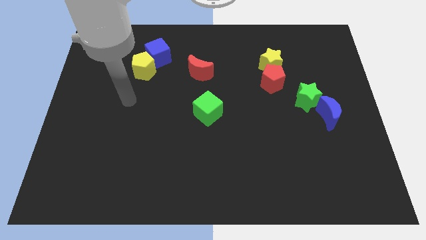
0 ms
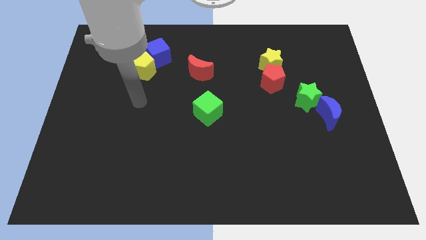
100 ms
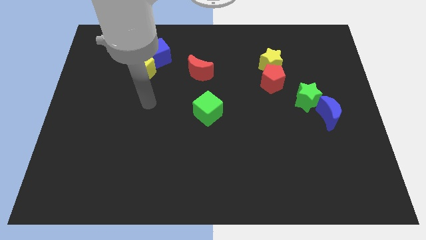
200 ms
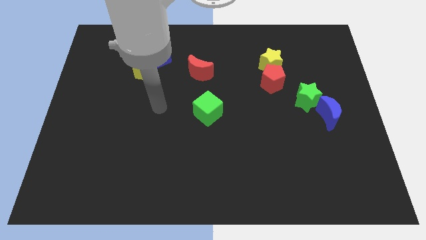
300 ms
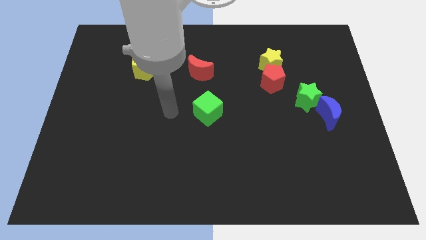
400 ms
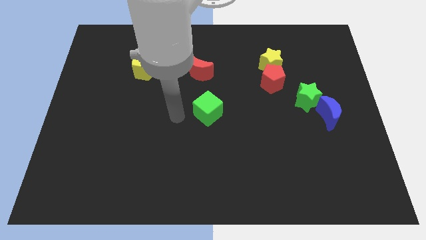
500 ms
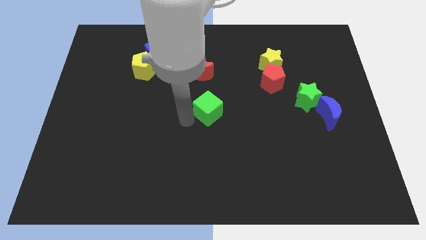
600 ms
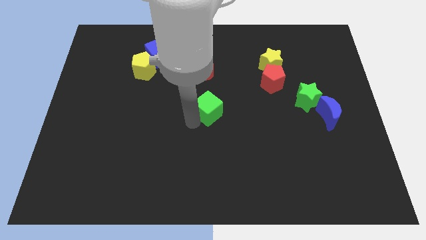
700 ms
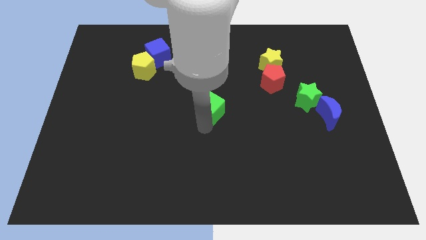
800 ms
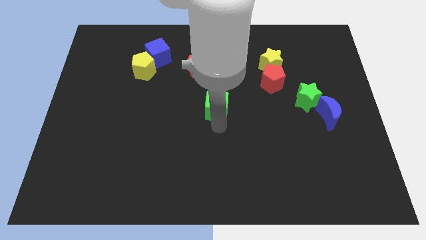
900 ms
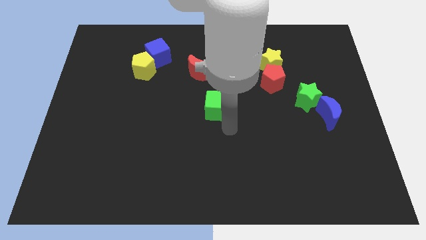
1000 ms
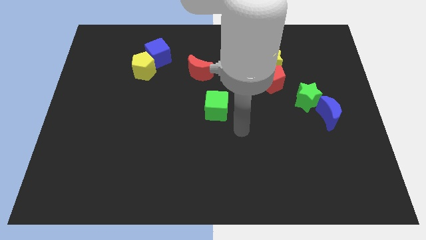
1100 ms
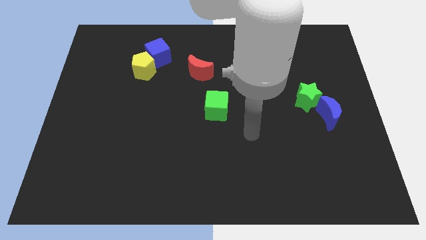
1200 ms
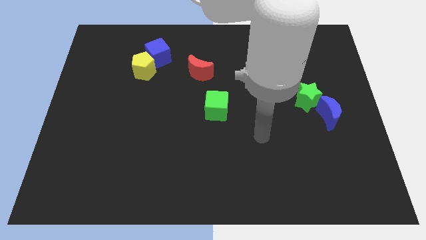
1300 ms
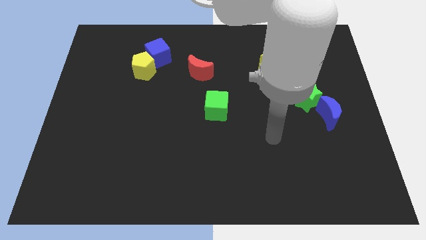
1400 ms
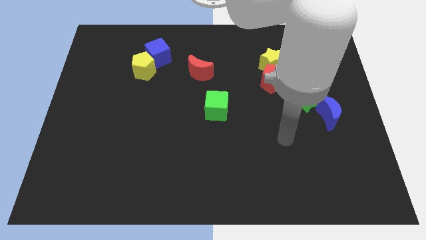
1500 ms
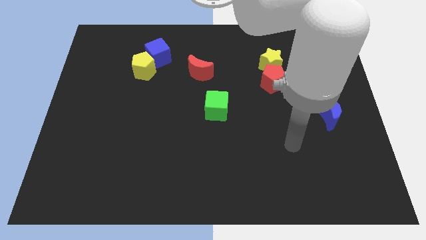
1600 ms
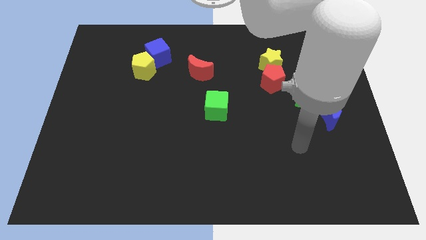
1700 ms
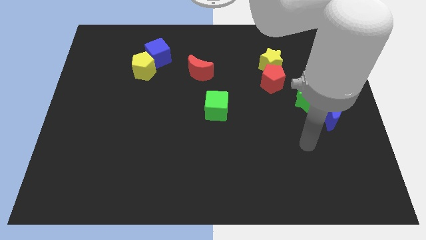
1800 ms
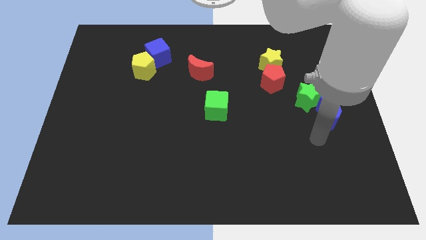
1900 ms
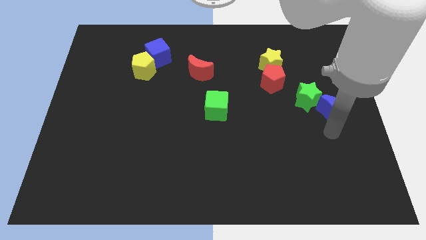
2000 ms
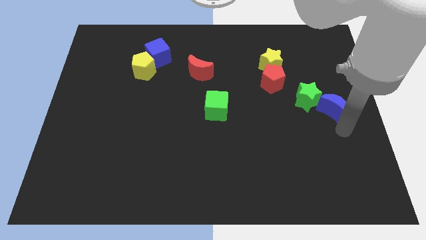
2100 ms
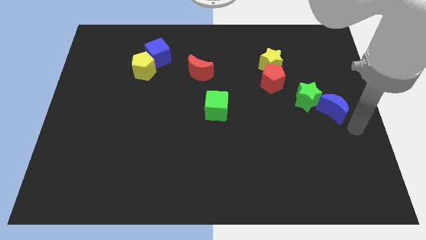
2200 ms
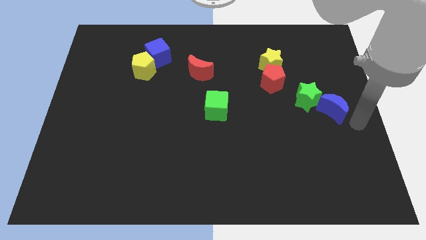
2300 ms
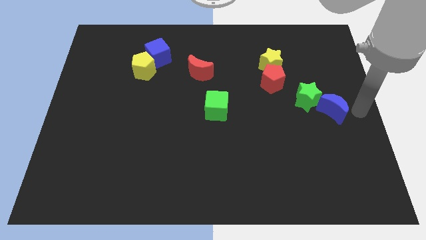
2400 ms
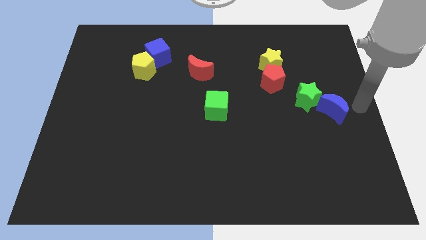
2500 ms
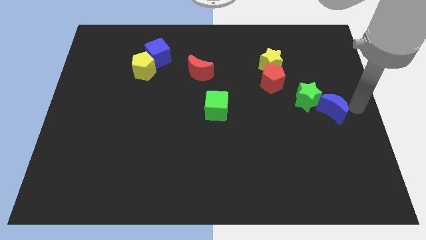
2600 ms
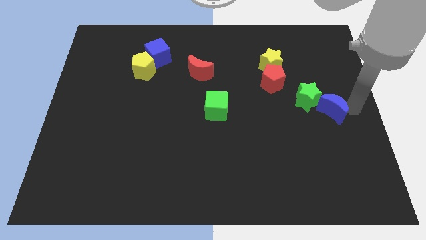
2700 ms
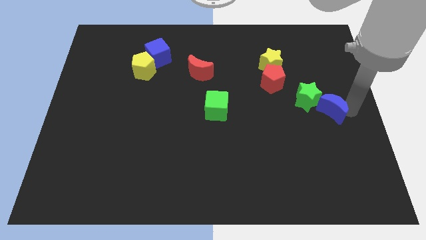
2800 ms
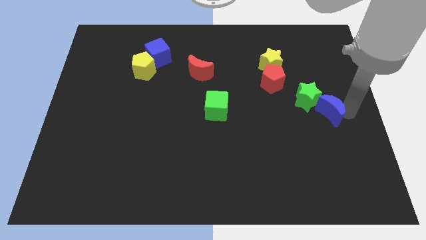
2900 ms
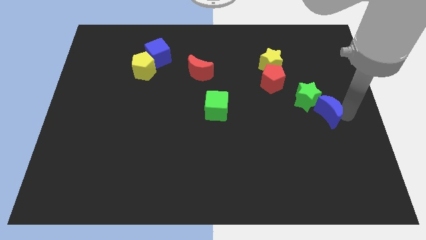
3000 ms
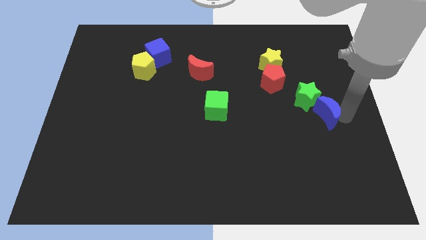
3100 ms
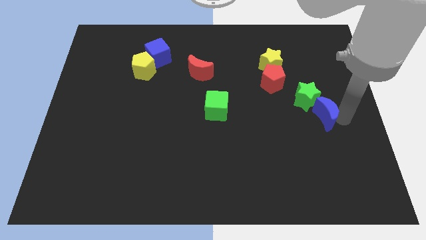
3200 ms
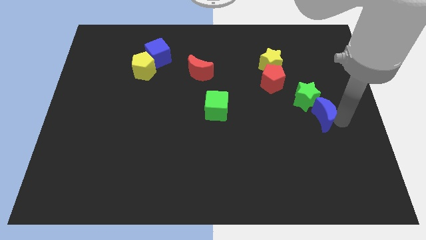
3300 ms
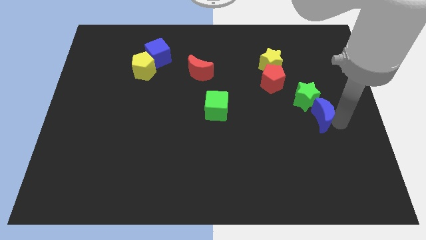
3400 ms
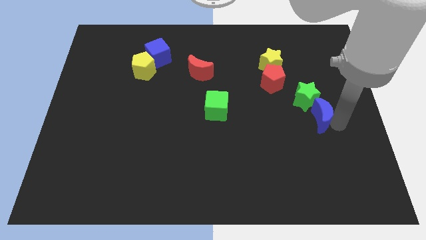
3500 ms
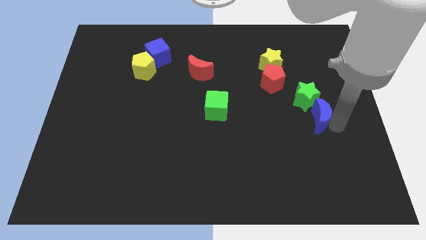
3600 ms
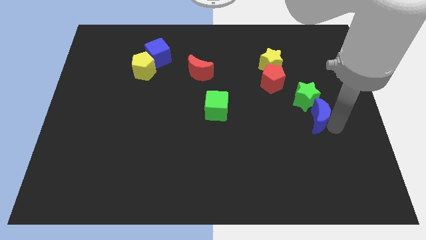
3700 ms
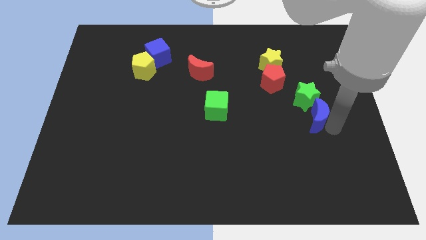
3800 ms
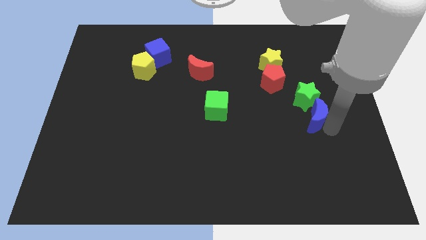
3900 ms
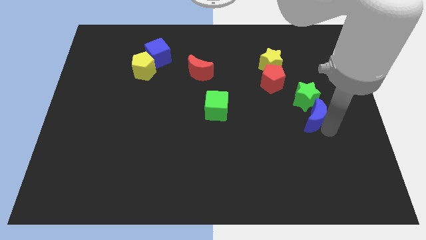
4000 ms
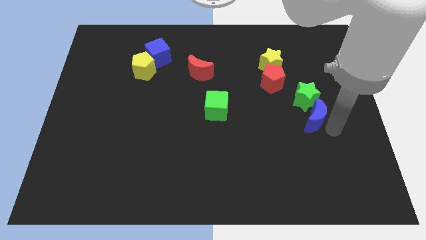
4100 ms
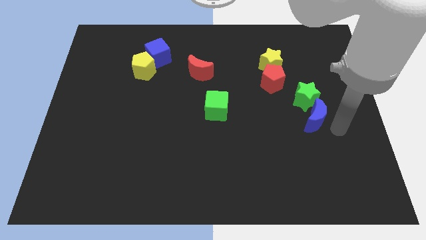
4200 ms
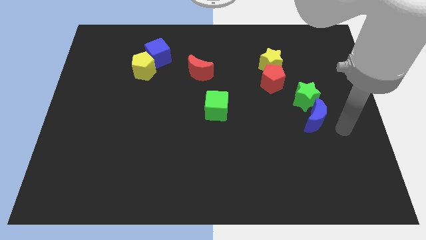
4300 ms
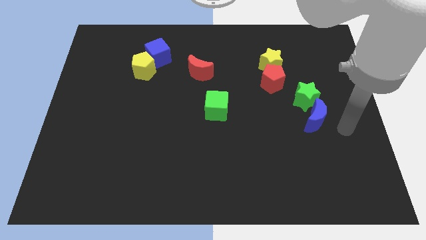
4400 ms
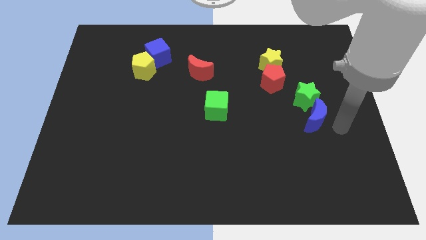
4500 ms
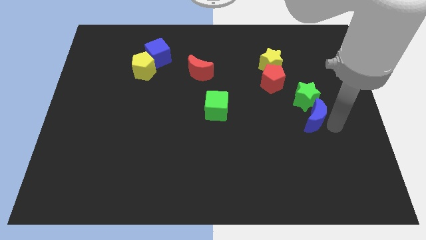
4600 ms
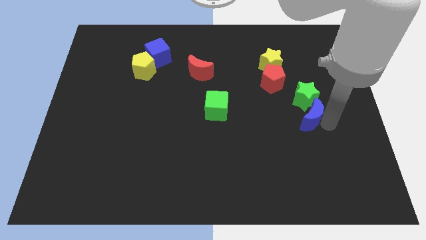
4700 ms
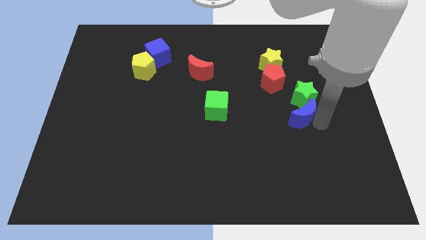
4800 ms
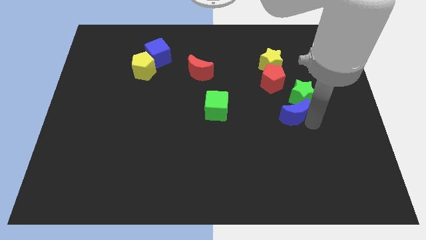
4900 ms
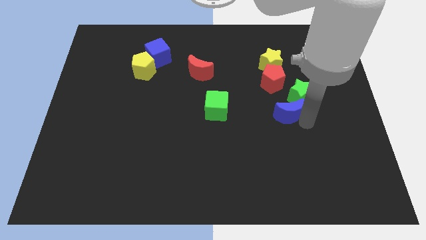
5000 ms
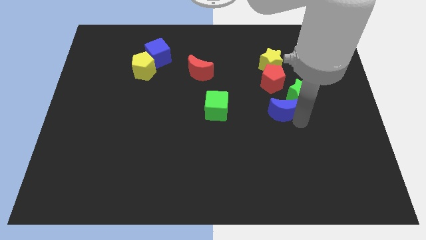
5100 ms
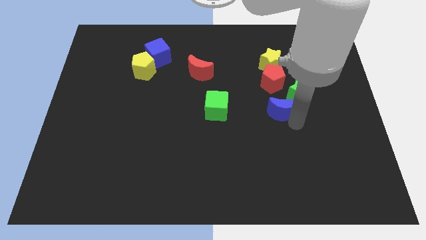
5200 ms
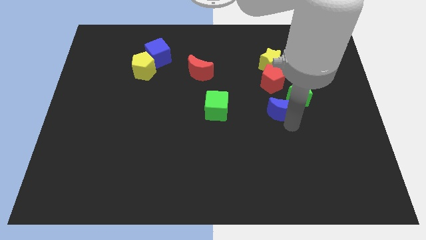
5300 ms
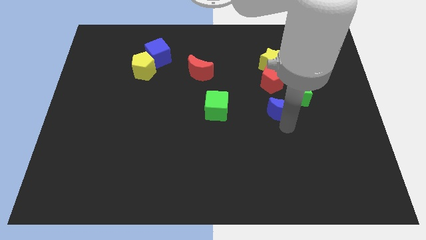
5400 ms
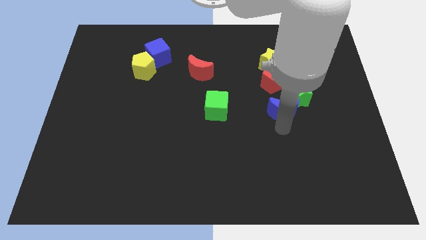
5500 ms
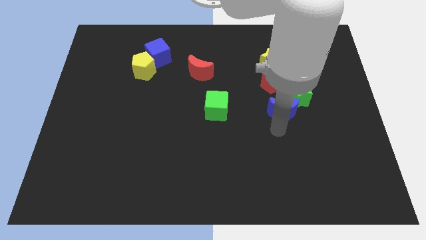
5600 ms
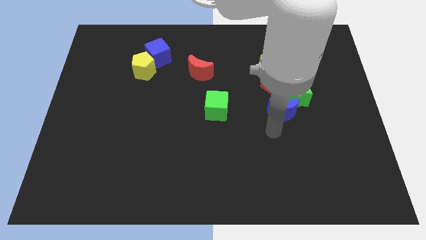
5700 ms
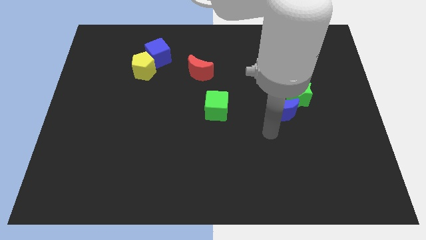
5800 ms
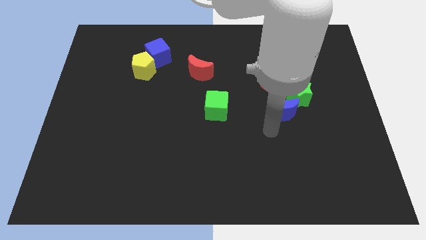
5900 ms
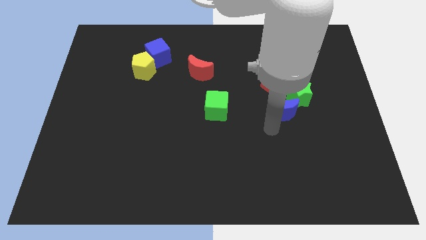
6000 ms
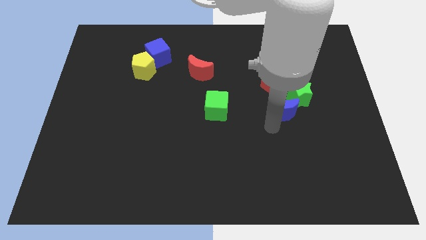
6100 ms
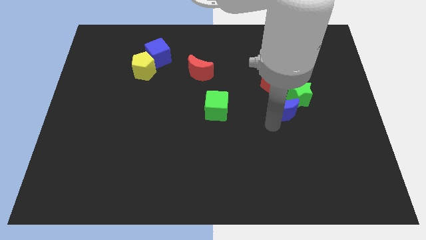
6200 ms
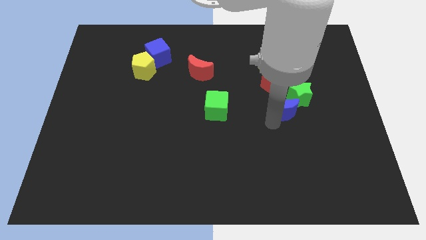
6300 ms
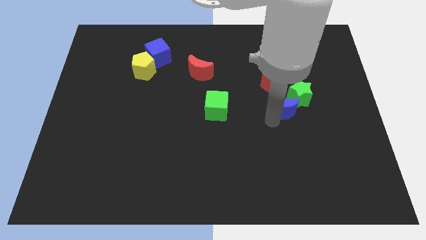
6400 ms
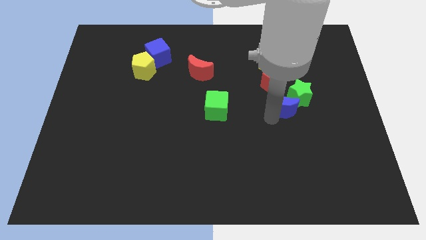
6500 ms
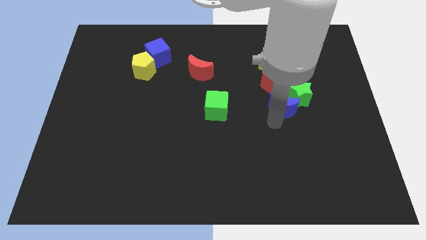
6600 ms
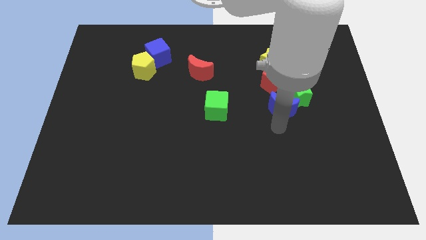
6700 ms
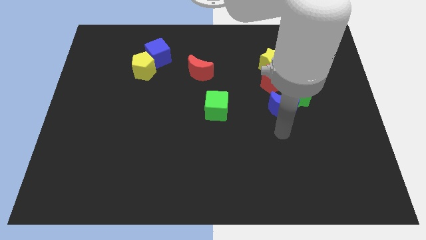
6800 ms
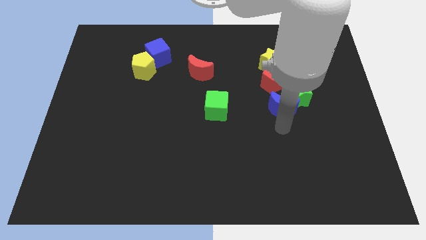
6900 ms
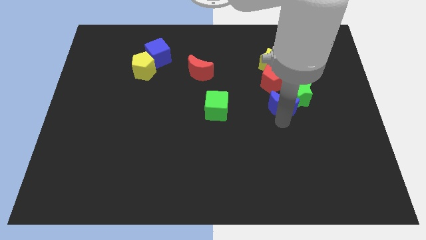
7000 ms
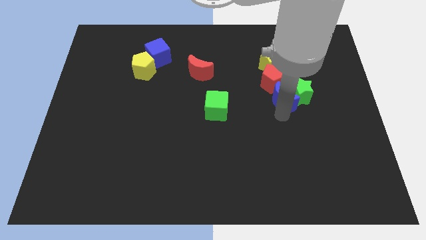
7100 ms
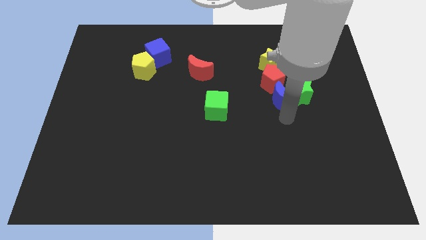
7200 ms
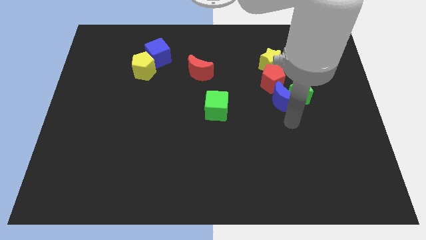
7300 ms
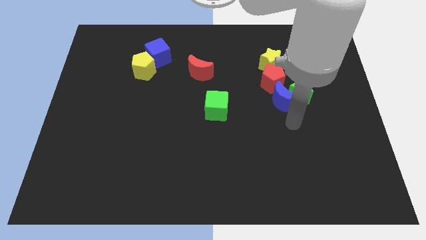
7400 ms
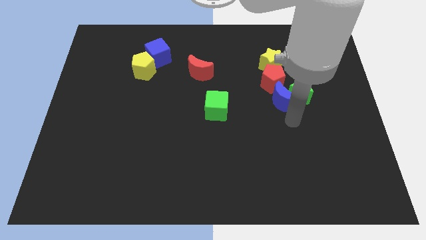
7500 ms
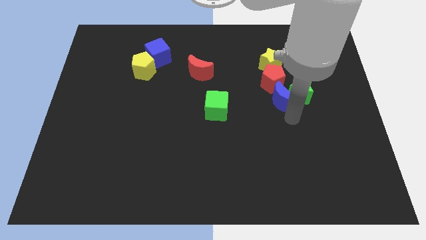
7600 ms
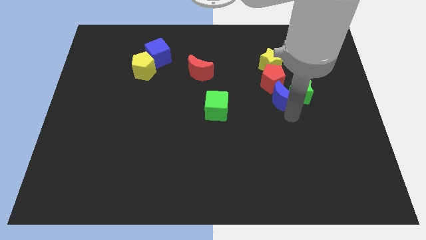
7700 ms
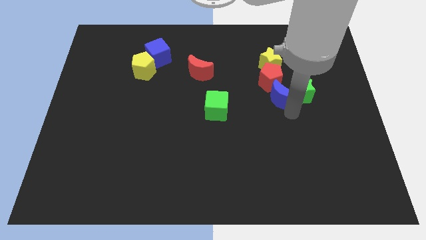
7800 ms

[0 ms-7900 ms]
slide the blue moon close to the red pentagon
